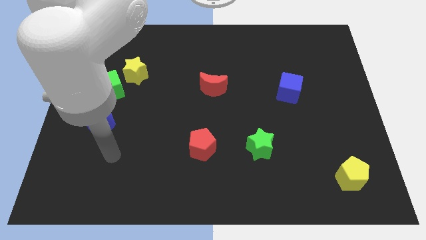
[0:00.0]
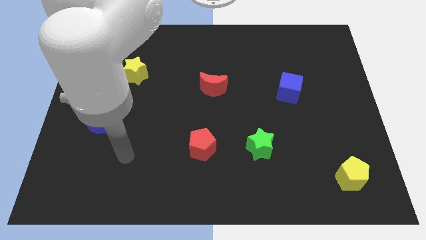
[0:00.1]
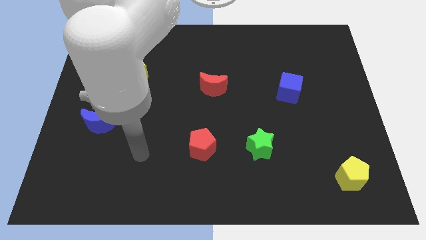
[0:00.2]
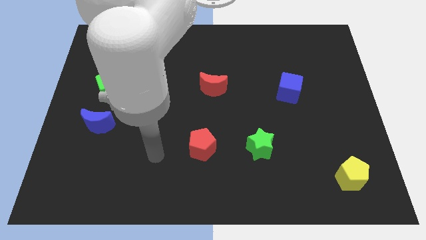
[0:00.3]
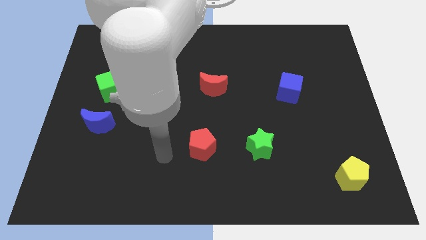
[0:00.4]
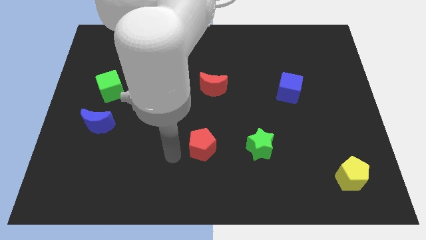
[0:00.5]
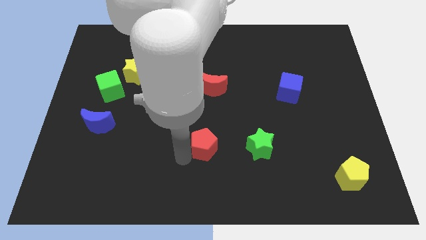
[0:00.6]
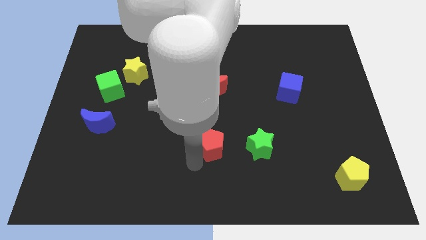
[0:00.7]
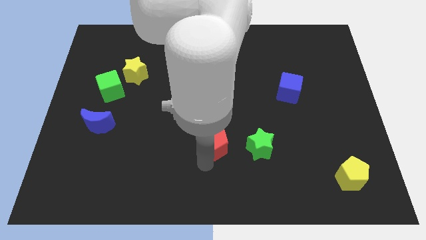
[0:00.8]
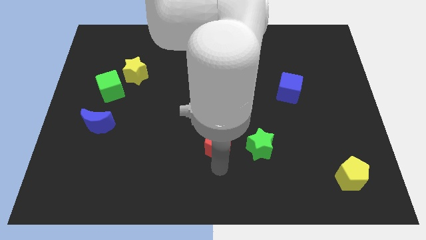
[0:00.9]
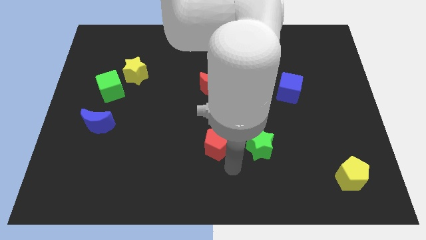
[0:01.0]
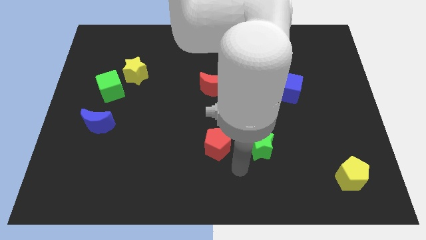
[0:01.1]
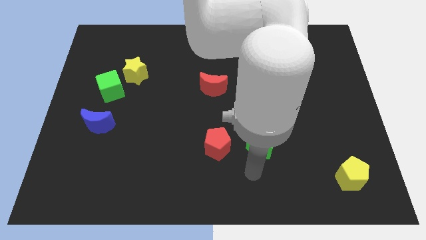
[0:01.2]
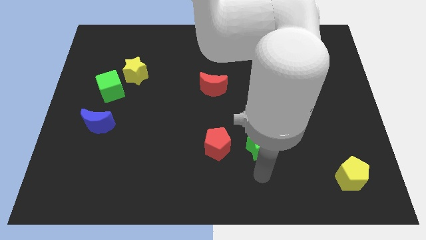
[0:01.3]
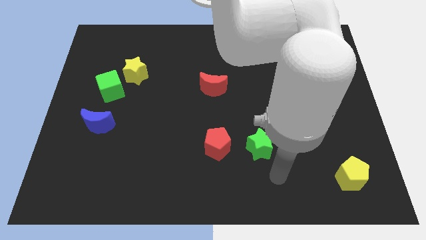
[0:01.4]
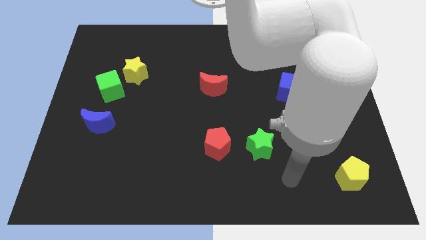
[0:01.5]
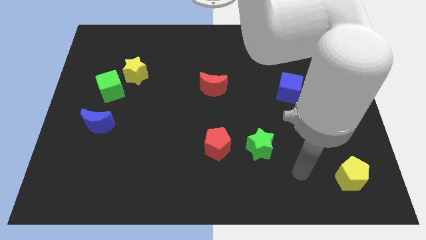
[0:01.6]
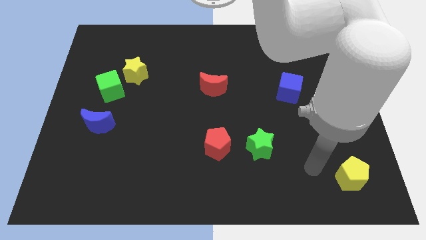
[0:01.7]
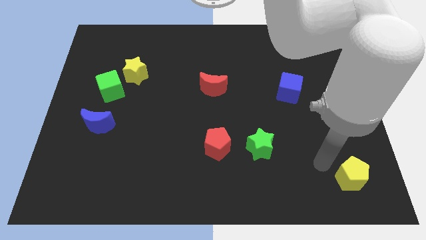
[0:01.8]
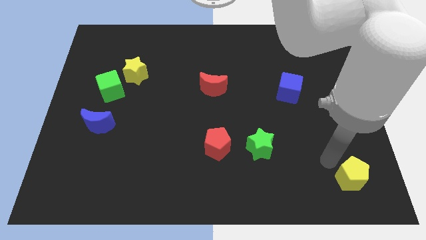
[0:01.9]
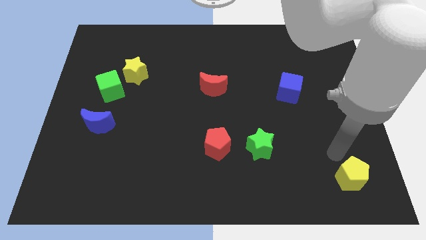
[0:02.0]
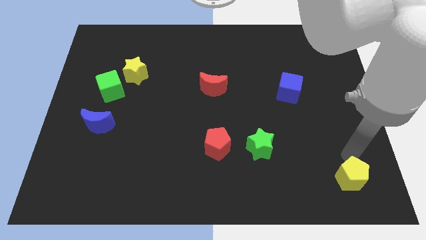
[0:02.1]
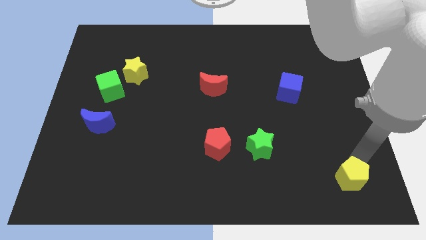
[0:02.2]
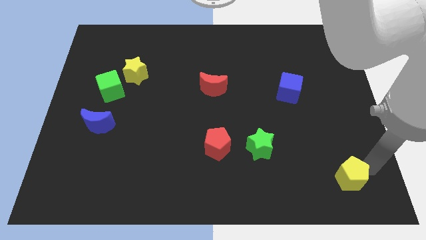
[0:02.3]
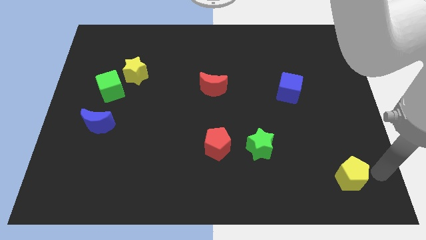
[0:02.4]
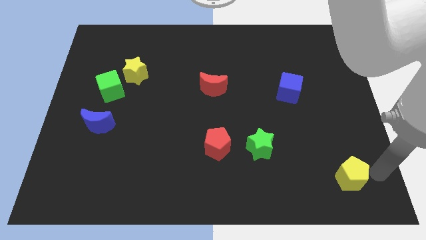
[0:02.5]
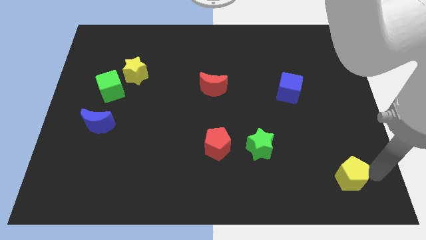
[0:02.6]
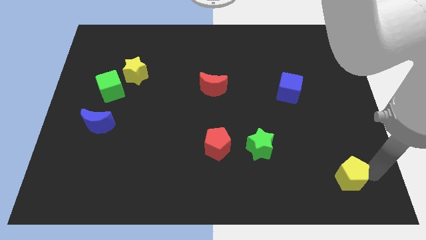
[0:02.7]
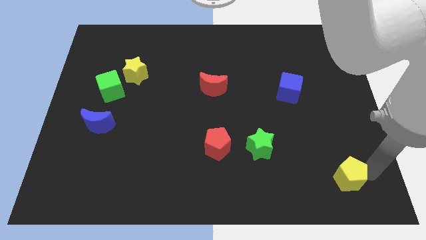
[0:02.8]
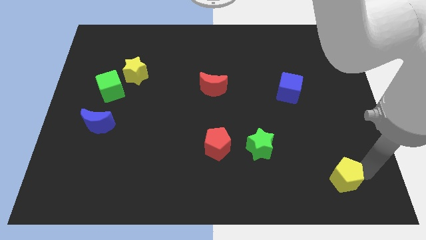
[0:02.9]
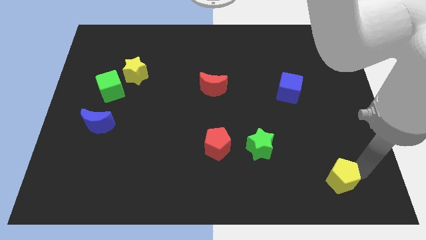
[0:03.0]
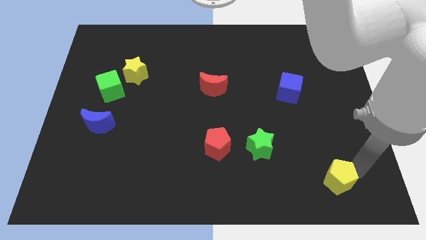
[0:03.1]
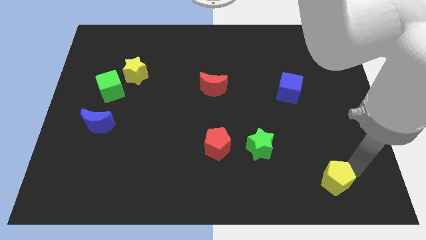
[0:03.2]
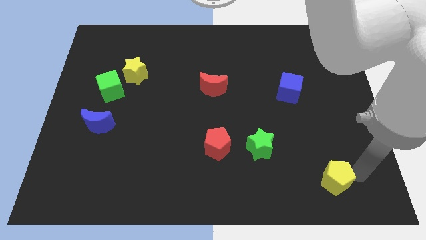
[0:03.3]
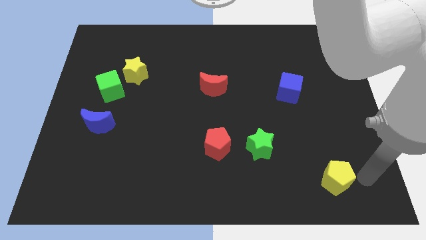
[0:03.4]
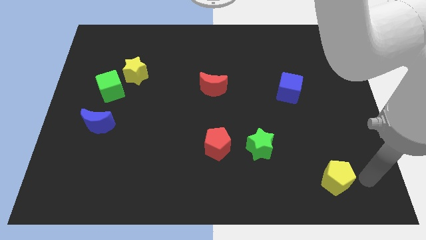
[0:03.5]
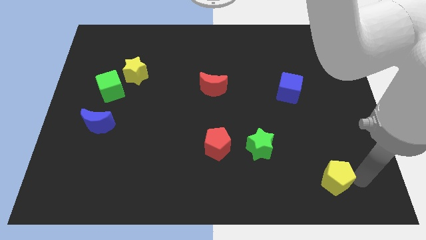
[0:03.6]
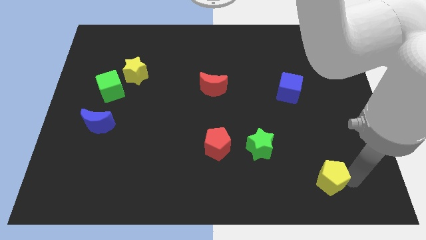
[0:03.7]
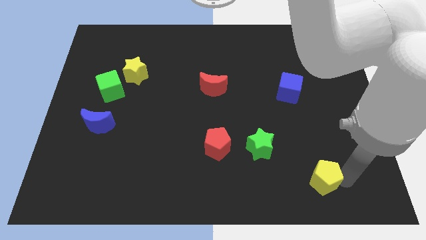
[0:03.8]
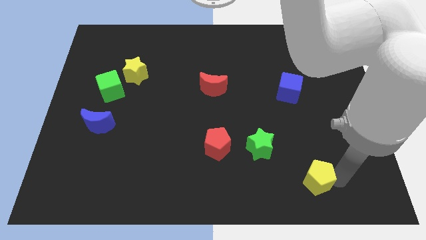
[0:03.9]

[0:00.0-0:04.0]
slide the yellow pentagon left slightly

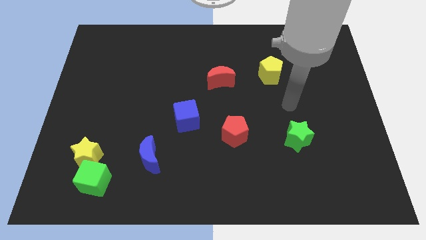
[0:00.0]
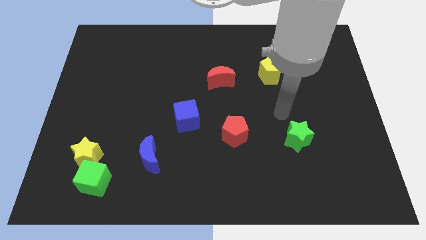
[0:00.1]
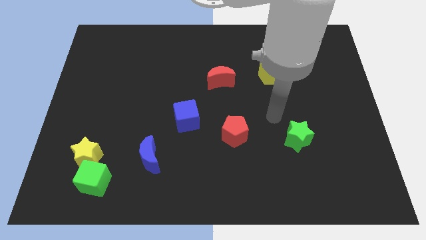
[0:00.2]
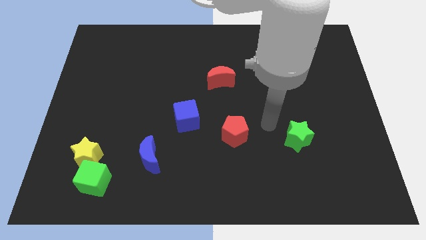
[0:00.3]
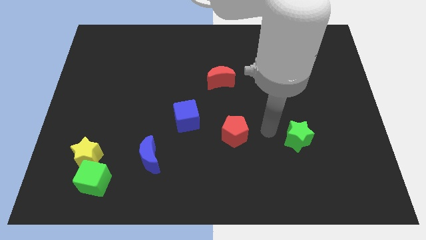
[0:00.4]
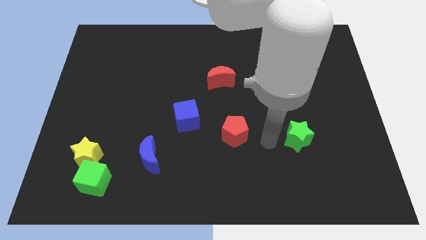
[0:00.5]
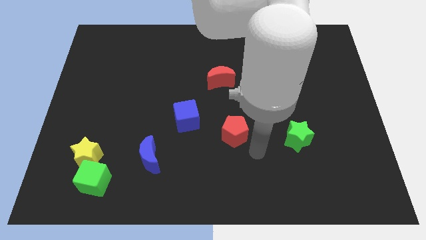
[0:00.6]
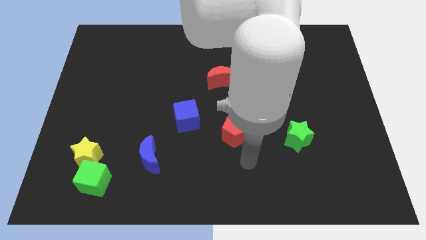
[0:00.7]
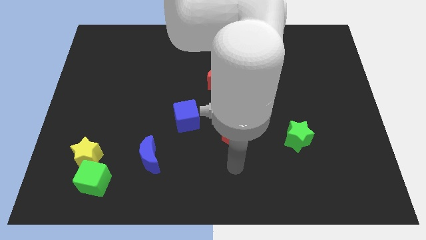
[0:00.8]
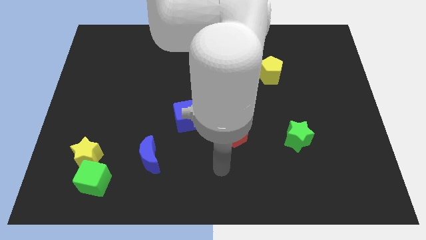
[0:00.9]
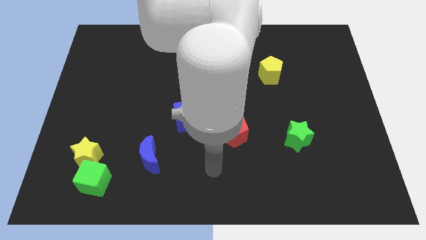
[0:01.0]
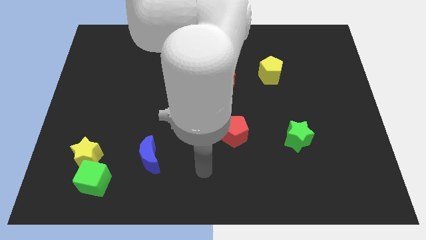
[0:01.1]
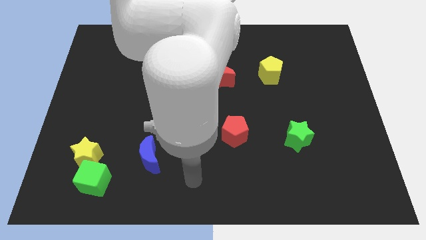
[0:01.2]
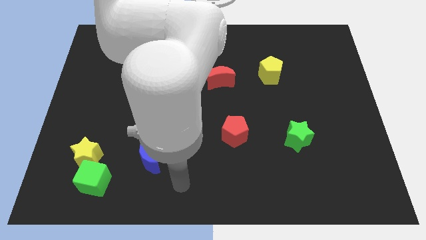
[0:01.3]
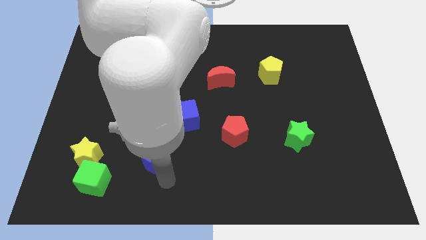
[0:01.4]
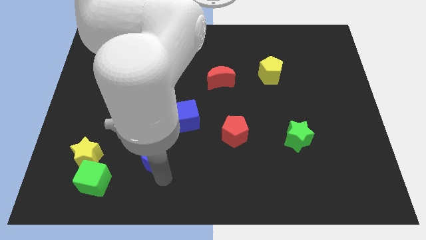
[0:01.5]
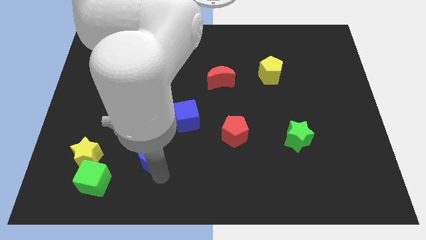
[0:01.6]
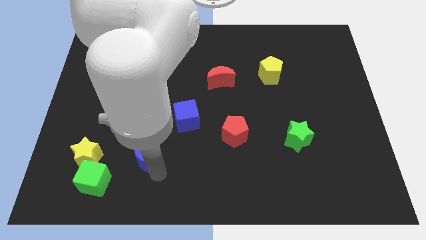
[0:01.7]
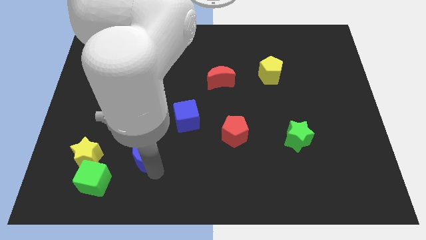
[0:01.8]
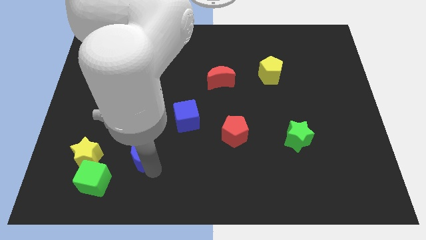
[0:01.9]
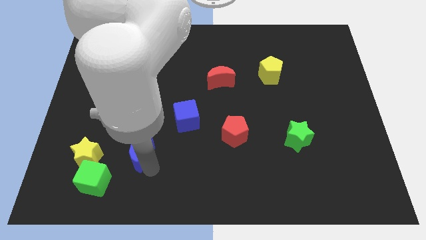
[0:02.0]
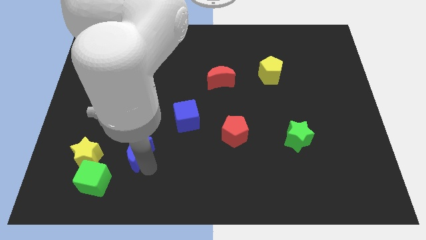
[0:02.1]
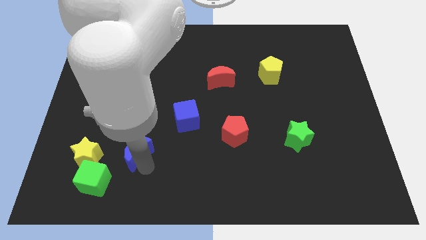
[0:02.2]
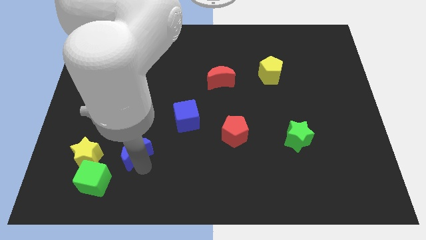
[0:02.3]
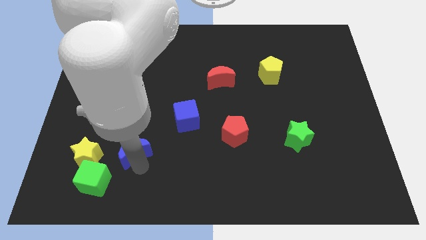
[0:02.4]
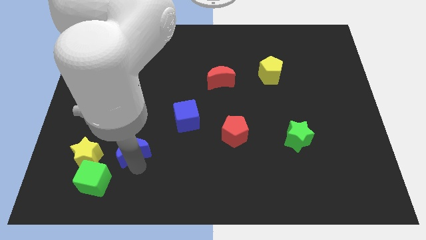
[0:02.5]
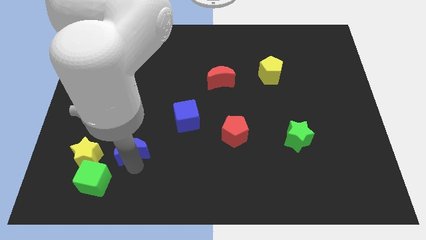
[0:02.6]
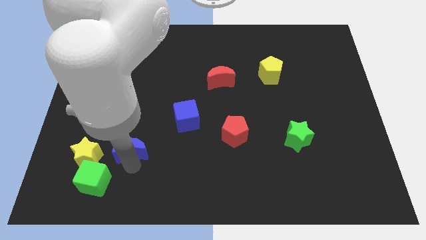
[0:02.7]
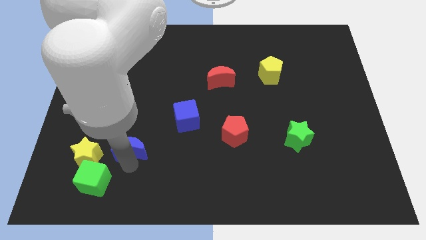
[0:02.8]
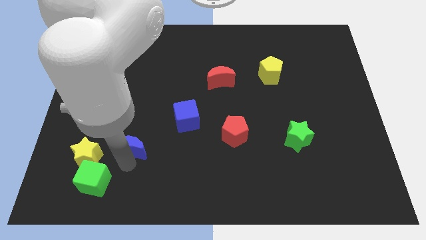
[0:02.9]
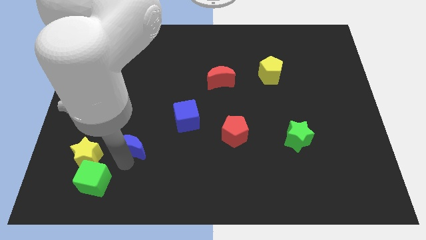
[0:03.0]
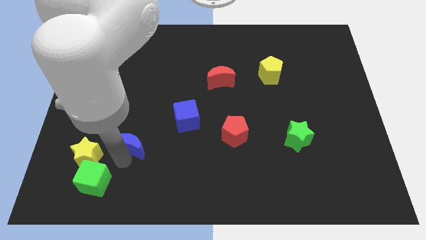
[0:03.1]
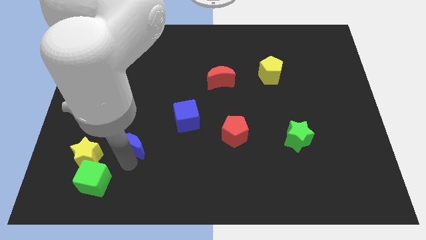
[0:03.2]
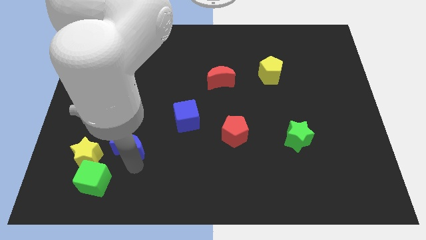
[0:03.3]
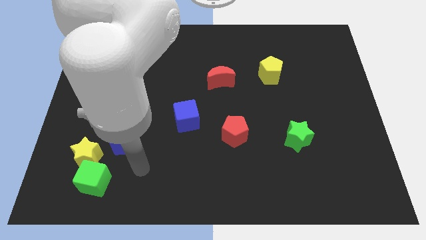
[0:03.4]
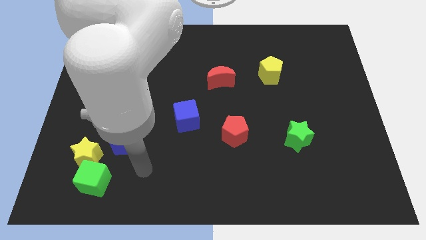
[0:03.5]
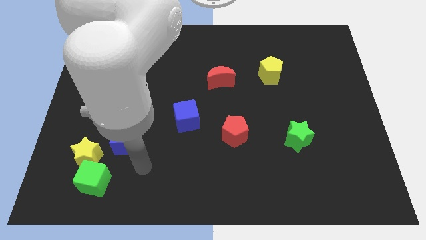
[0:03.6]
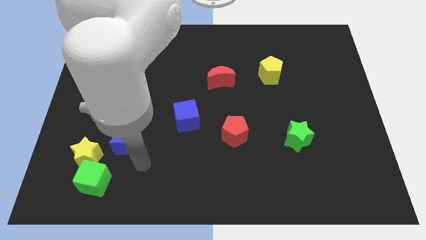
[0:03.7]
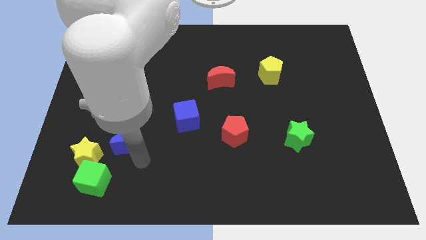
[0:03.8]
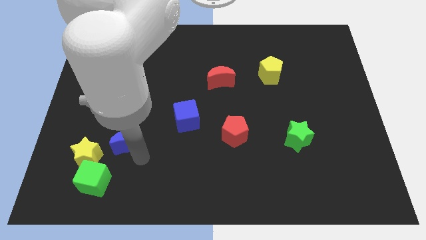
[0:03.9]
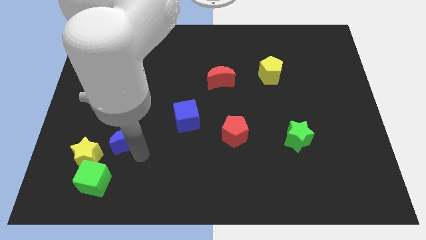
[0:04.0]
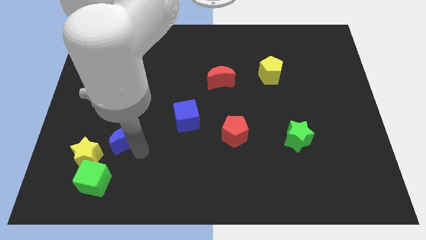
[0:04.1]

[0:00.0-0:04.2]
slide the blue moon slightly upwards and left diagonally
